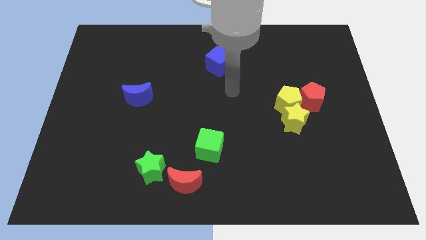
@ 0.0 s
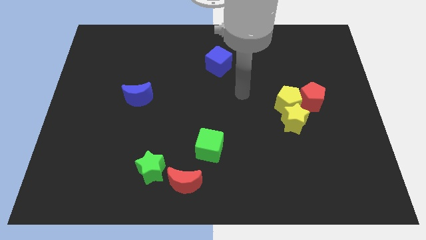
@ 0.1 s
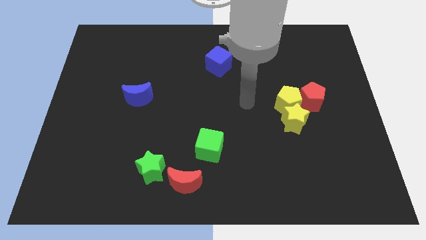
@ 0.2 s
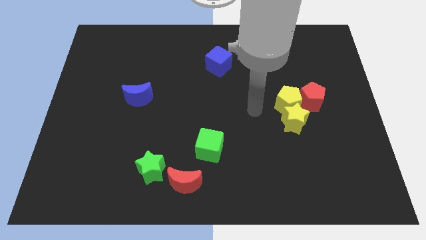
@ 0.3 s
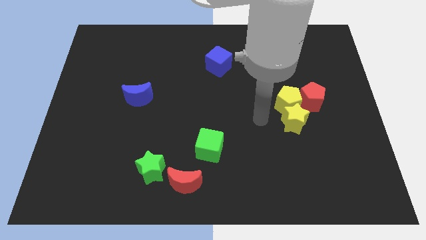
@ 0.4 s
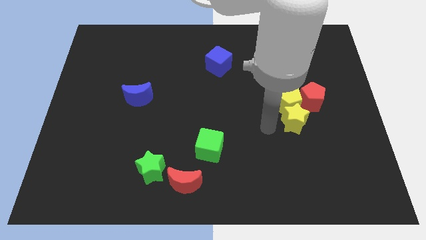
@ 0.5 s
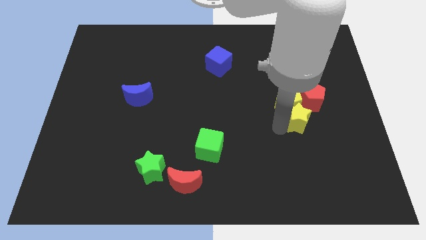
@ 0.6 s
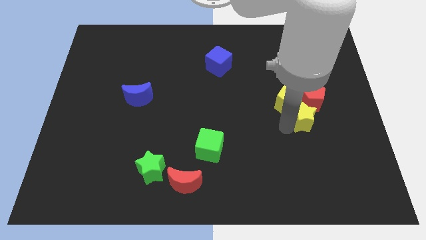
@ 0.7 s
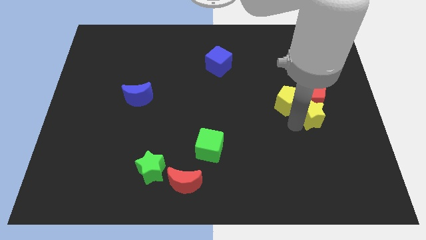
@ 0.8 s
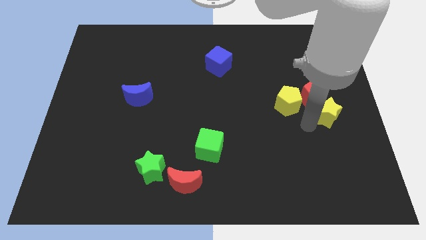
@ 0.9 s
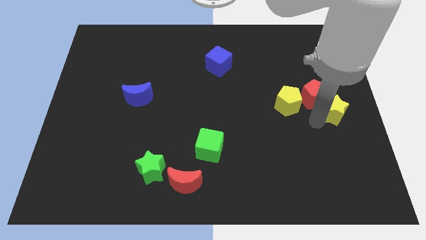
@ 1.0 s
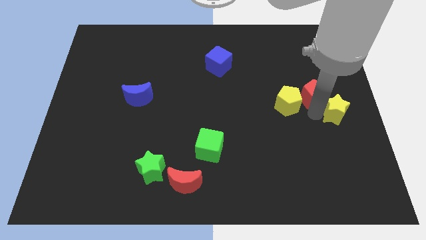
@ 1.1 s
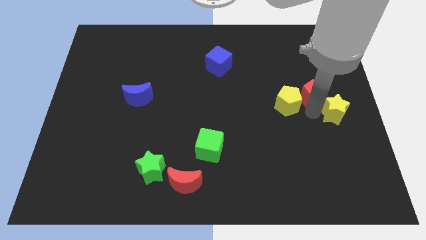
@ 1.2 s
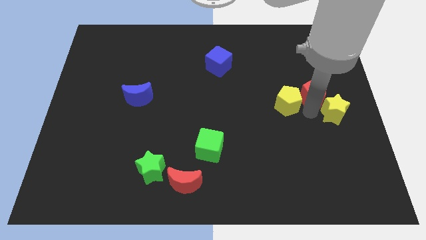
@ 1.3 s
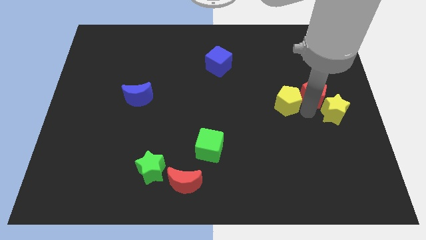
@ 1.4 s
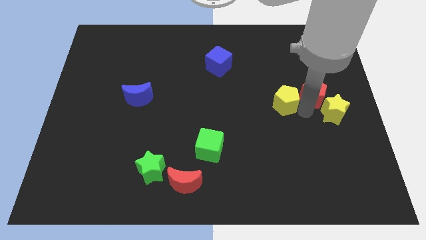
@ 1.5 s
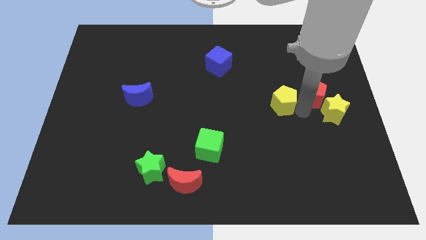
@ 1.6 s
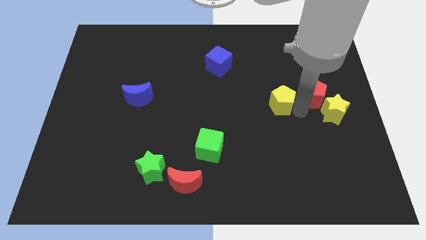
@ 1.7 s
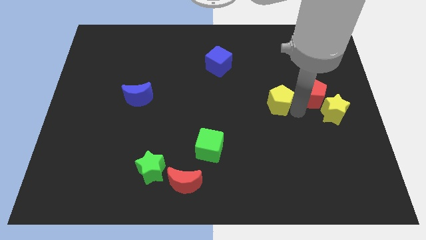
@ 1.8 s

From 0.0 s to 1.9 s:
separate the yellow pentagon from the yellow star and red pentagon

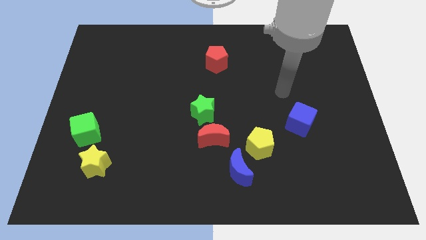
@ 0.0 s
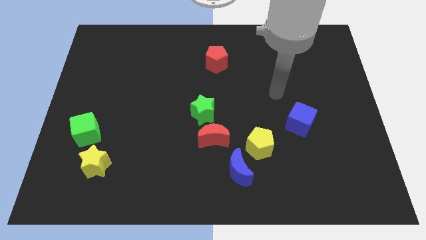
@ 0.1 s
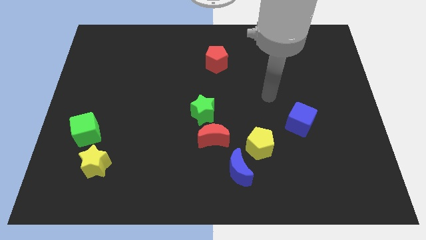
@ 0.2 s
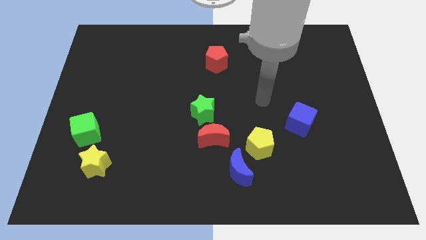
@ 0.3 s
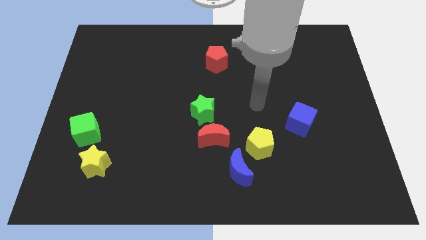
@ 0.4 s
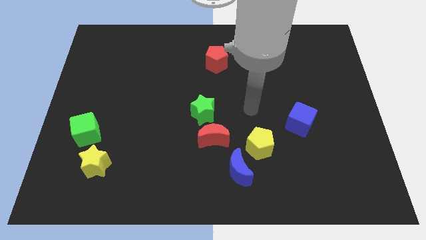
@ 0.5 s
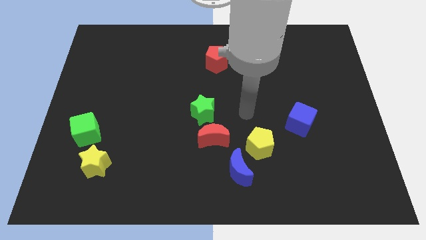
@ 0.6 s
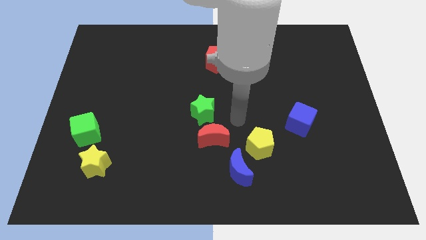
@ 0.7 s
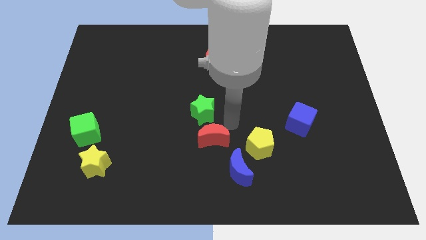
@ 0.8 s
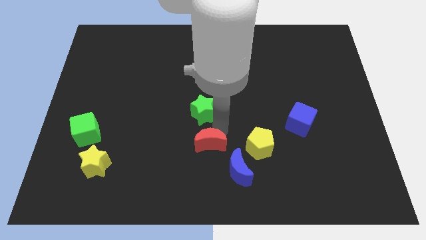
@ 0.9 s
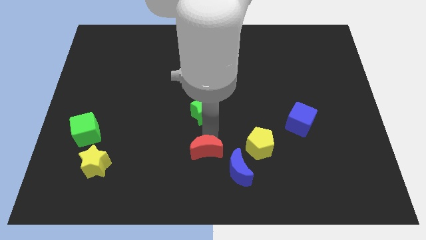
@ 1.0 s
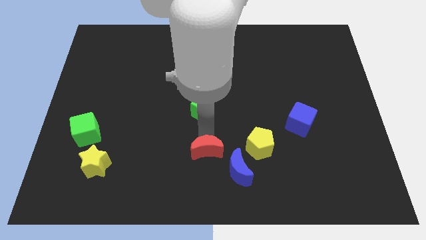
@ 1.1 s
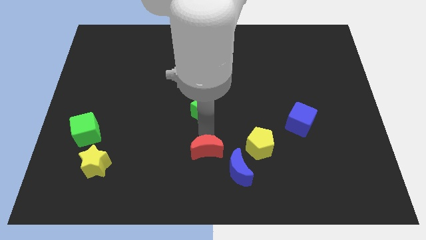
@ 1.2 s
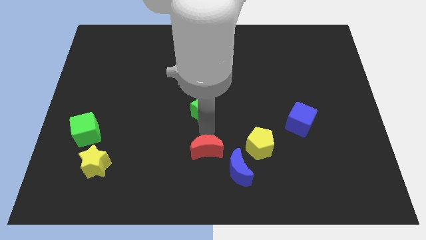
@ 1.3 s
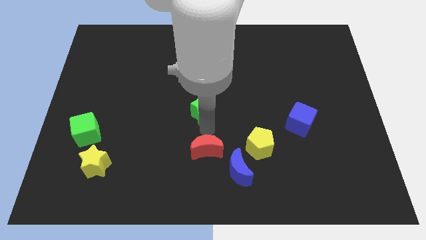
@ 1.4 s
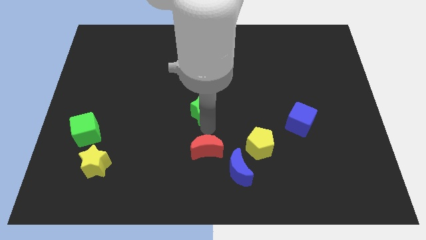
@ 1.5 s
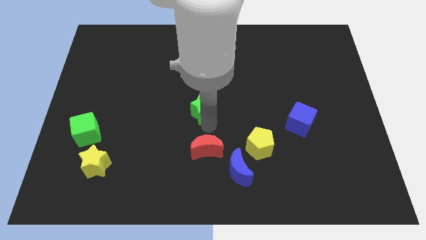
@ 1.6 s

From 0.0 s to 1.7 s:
separate the green star from the red moon

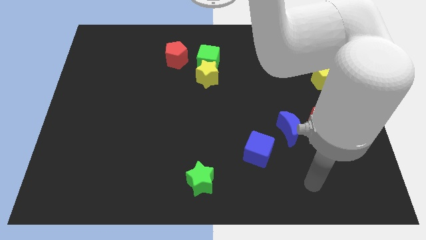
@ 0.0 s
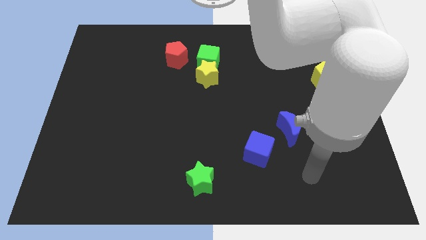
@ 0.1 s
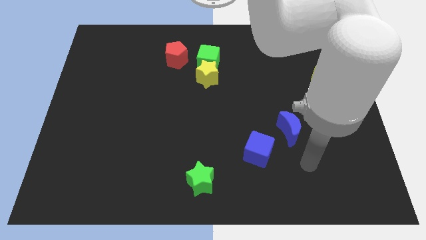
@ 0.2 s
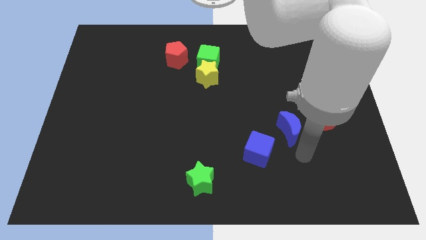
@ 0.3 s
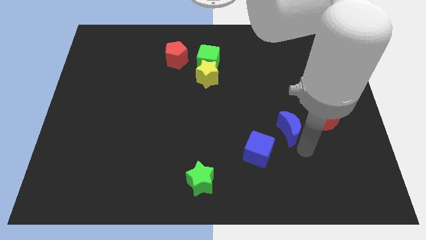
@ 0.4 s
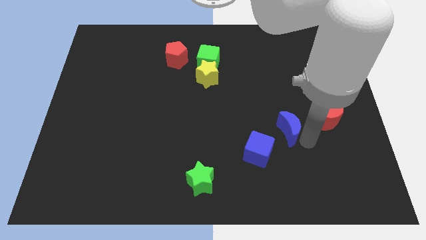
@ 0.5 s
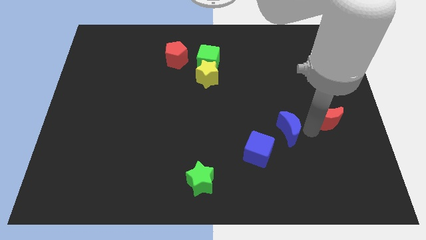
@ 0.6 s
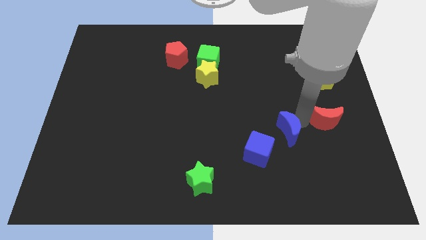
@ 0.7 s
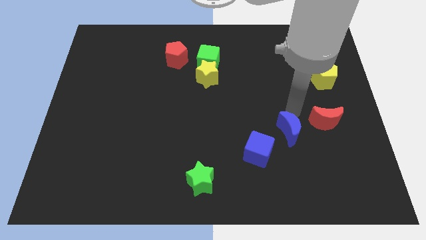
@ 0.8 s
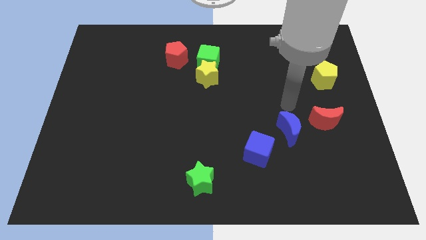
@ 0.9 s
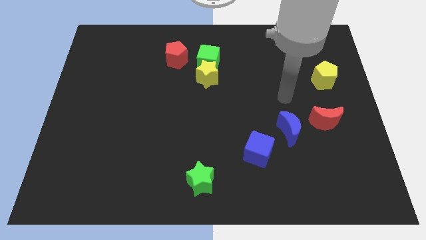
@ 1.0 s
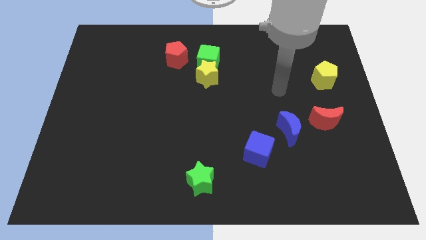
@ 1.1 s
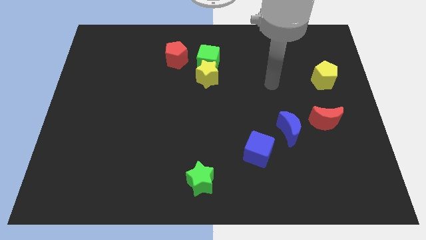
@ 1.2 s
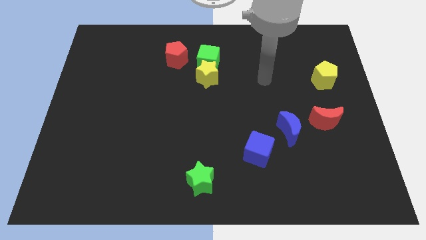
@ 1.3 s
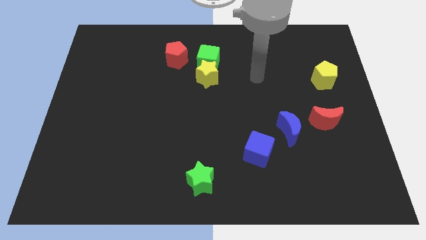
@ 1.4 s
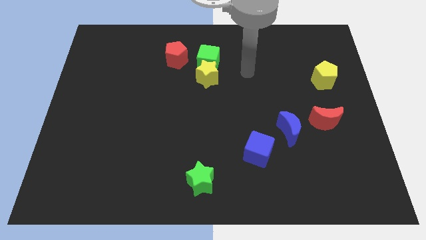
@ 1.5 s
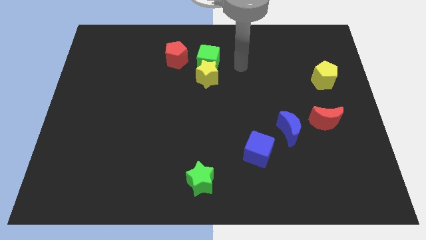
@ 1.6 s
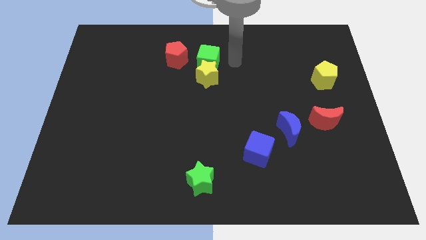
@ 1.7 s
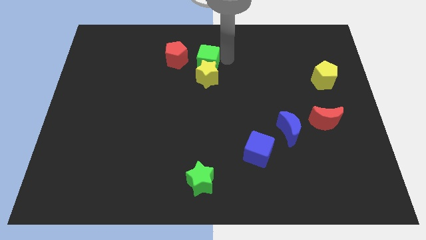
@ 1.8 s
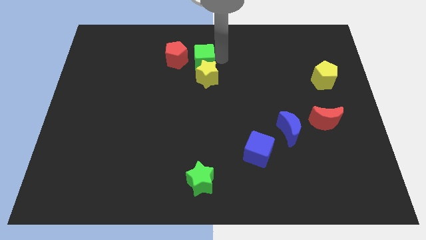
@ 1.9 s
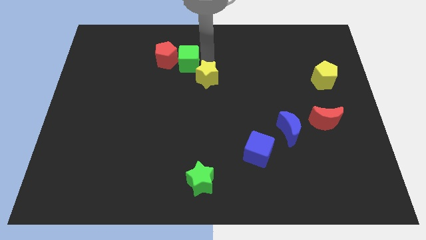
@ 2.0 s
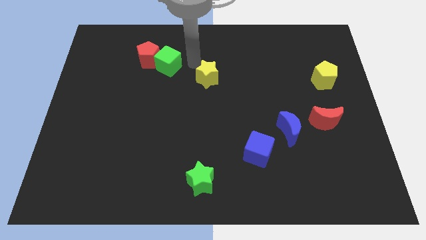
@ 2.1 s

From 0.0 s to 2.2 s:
separate the yellow star from the green cube

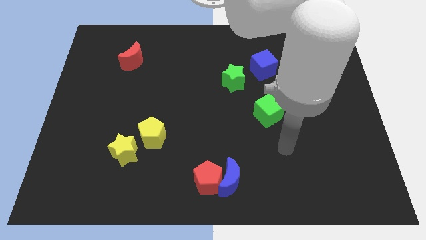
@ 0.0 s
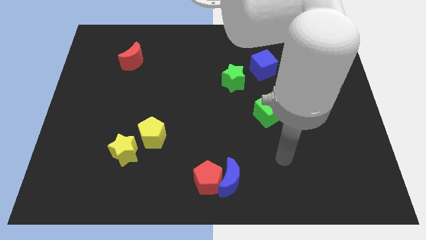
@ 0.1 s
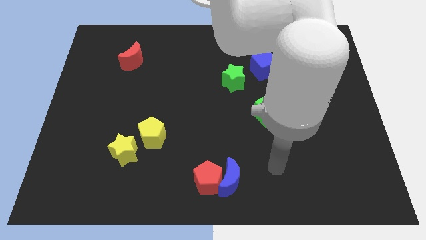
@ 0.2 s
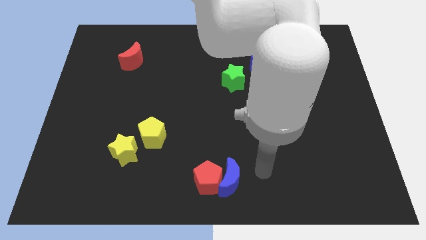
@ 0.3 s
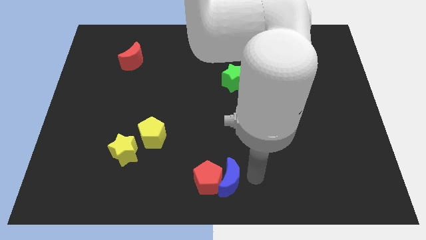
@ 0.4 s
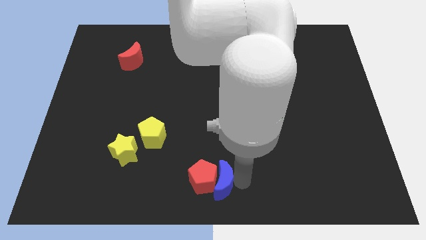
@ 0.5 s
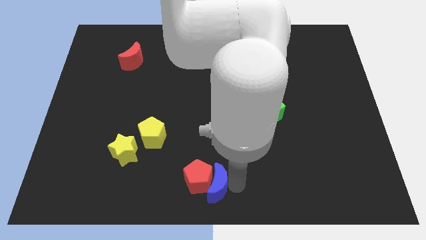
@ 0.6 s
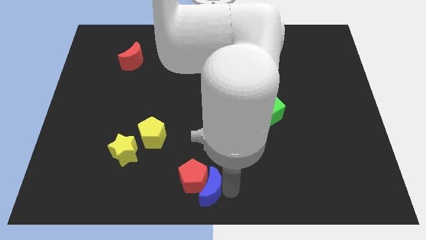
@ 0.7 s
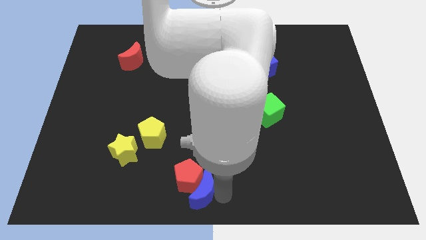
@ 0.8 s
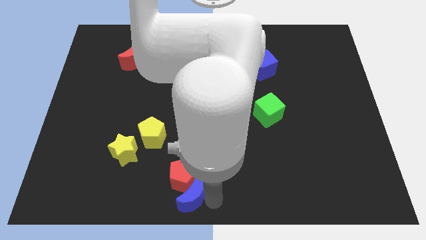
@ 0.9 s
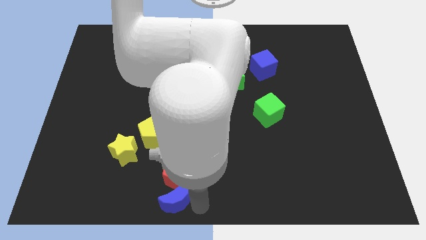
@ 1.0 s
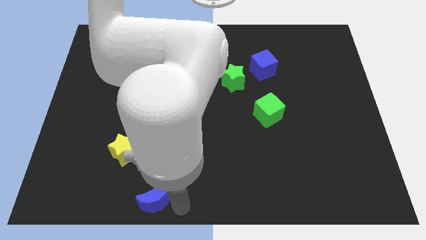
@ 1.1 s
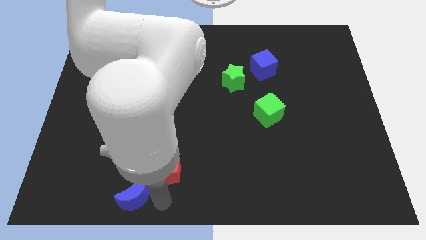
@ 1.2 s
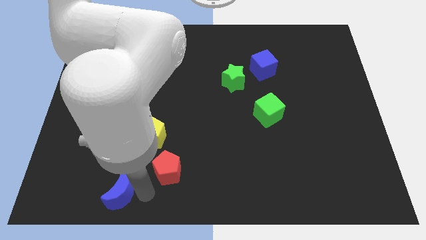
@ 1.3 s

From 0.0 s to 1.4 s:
separate the red pentagon from the blue moon

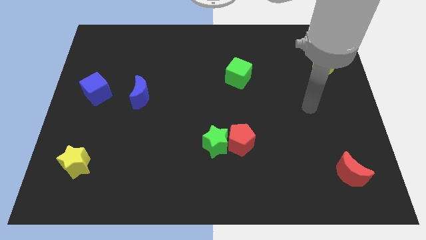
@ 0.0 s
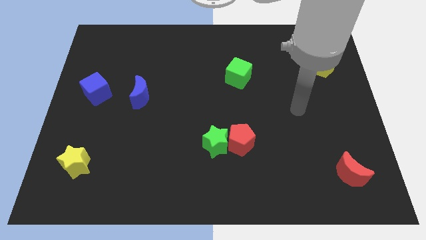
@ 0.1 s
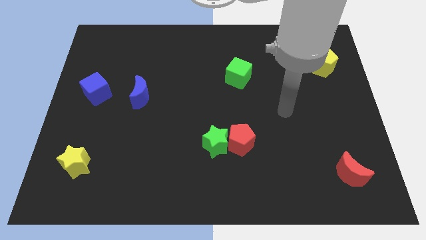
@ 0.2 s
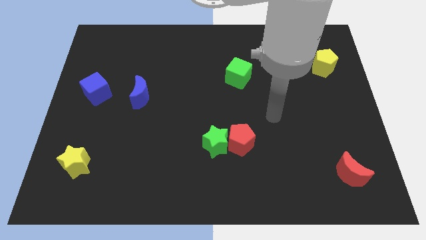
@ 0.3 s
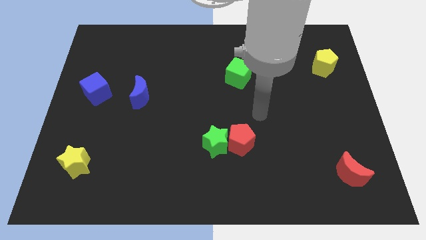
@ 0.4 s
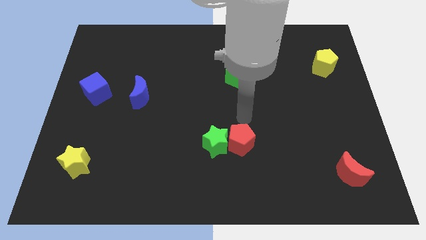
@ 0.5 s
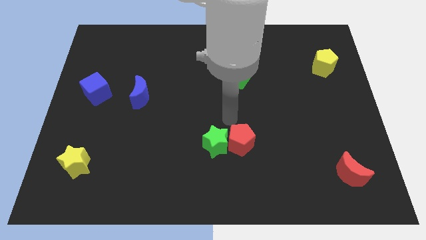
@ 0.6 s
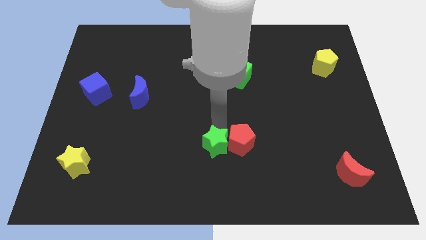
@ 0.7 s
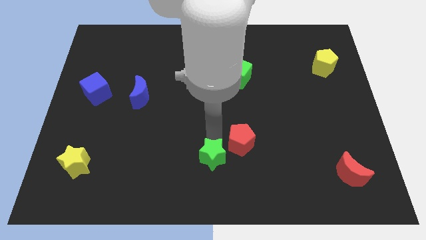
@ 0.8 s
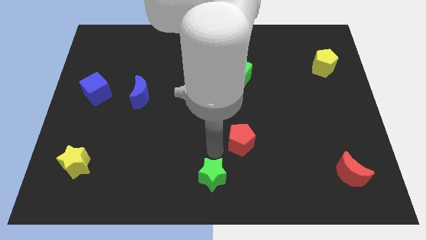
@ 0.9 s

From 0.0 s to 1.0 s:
move the red pentagon away from the green star

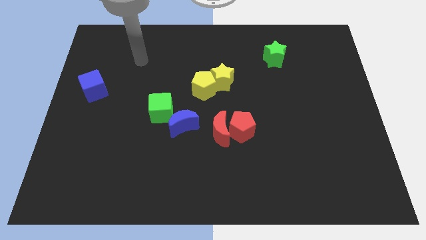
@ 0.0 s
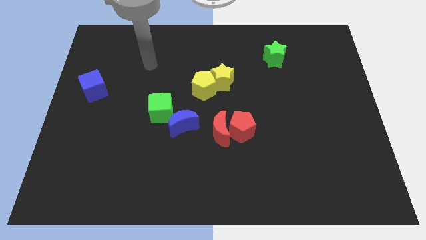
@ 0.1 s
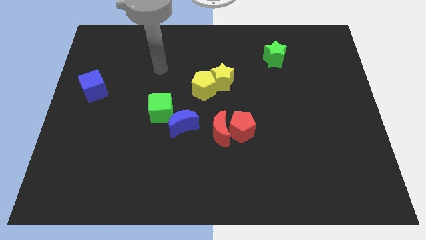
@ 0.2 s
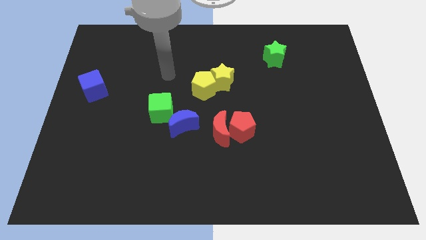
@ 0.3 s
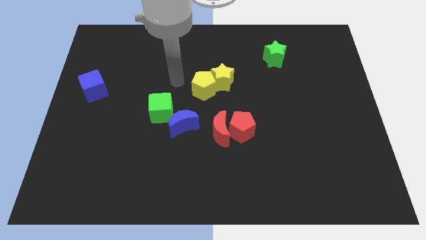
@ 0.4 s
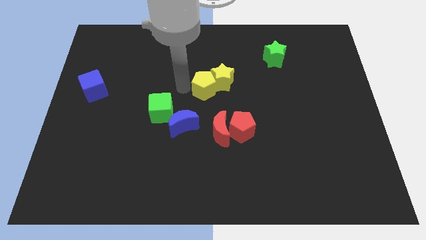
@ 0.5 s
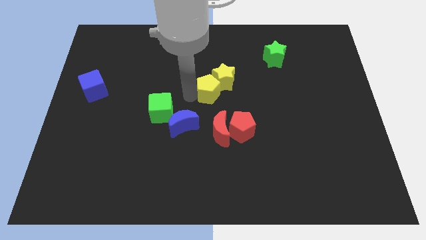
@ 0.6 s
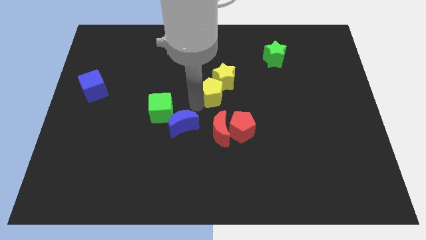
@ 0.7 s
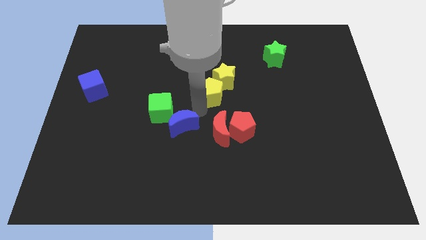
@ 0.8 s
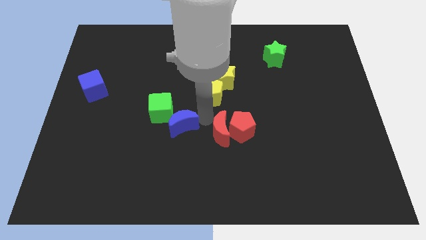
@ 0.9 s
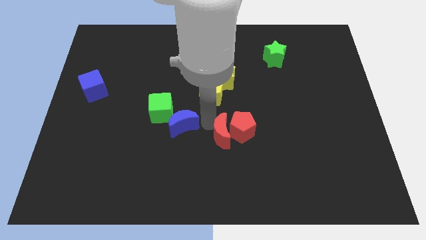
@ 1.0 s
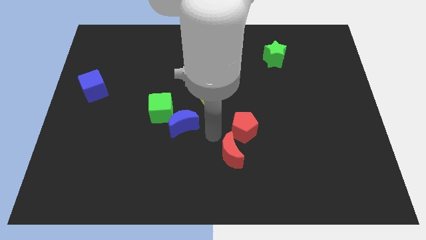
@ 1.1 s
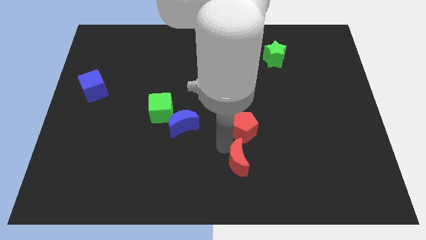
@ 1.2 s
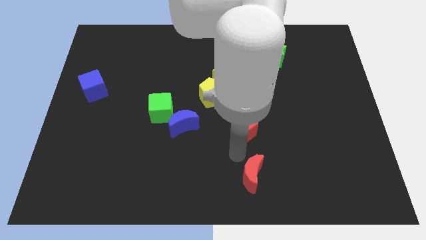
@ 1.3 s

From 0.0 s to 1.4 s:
separate the red pentagon from the red moon
